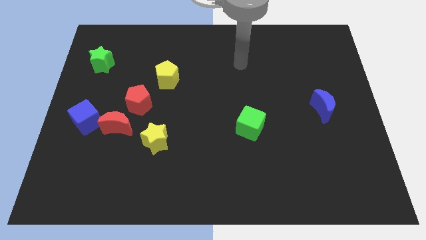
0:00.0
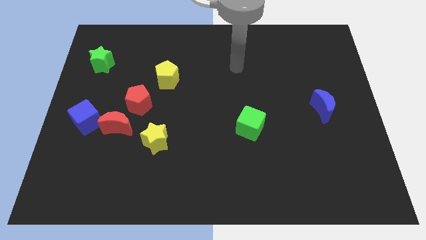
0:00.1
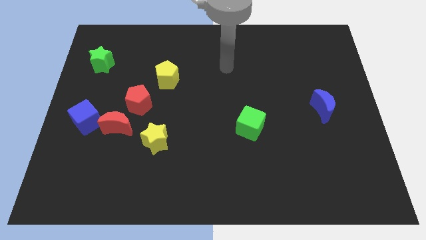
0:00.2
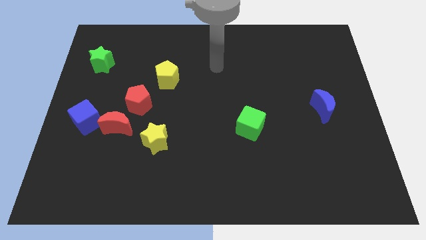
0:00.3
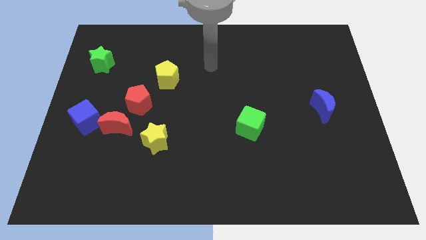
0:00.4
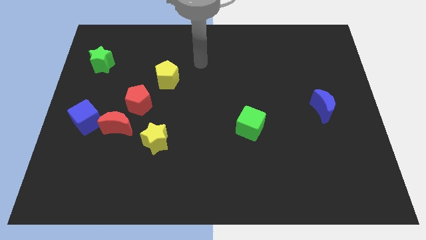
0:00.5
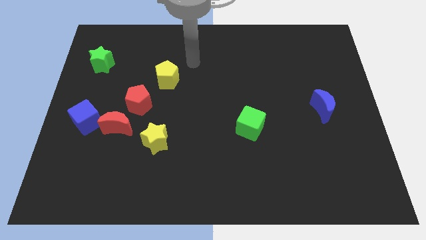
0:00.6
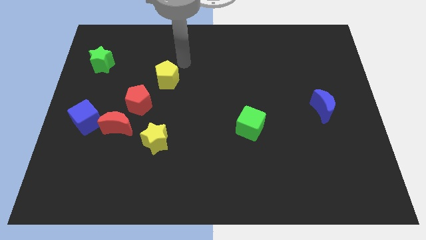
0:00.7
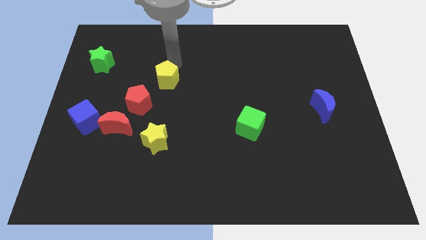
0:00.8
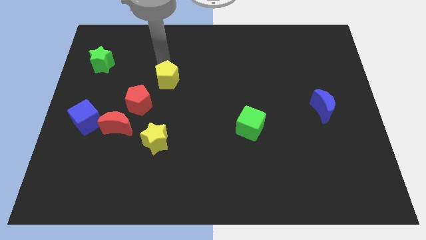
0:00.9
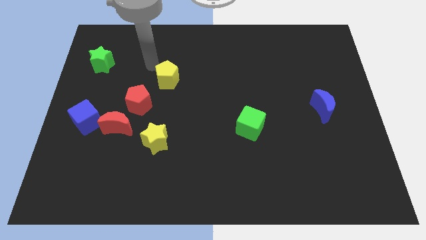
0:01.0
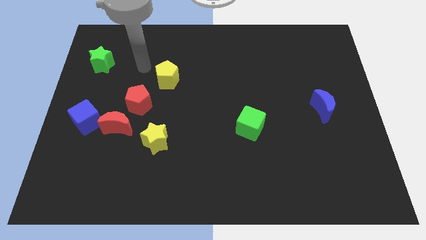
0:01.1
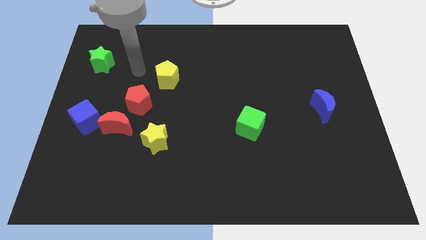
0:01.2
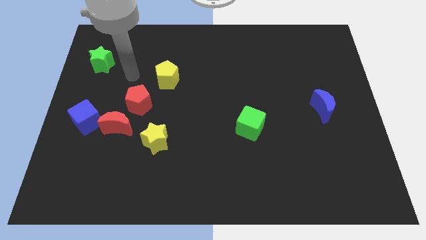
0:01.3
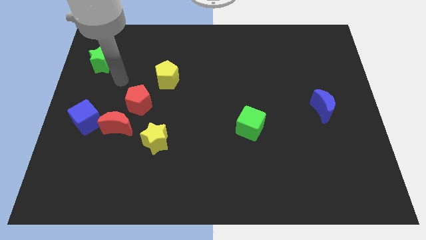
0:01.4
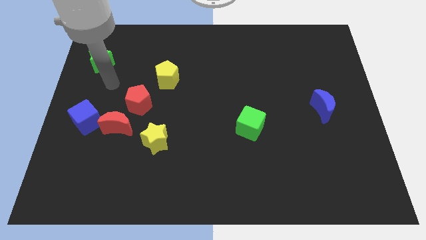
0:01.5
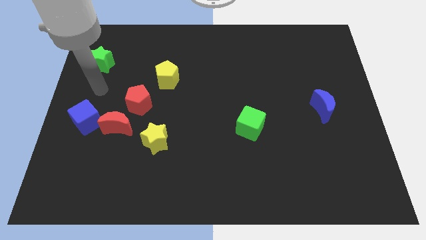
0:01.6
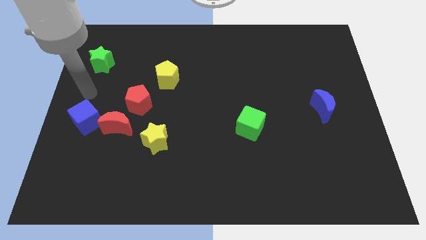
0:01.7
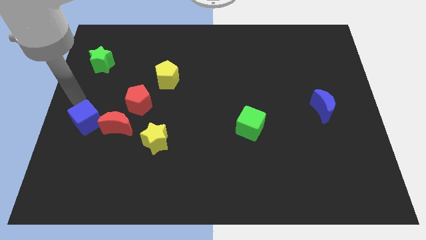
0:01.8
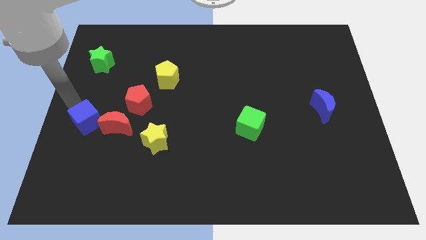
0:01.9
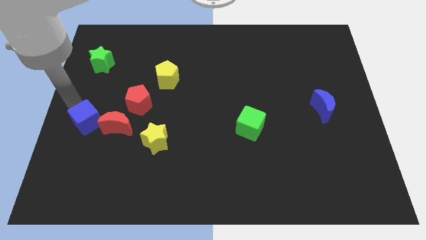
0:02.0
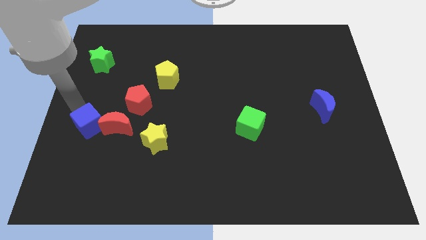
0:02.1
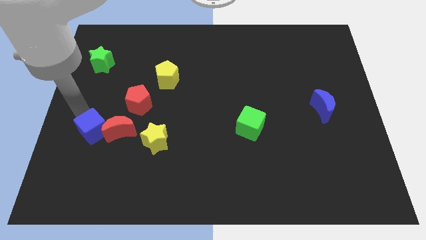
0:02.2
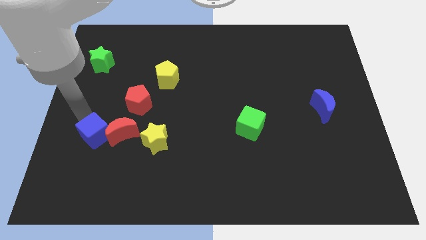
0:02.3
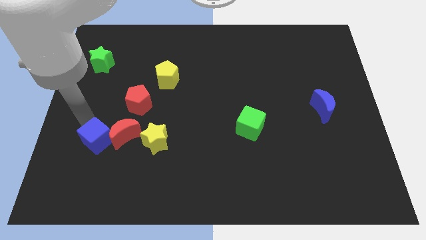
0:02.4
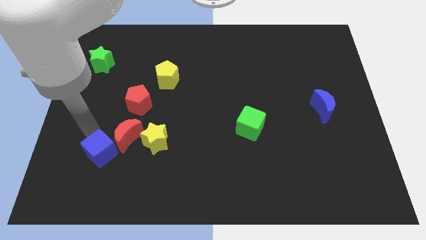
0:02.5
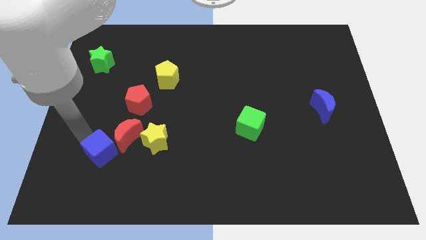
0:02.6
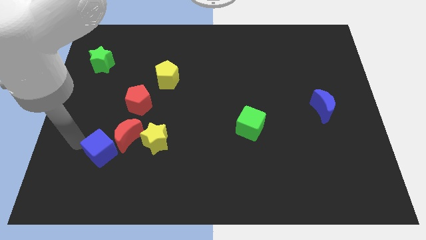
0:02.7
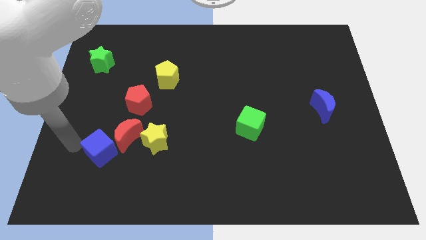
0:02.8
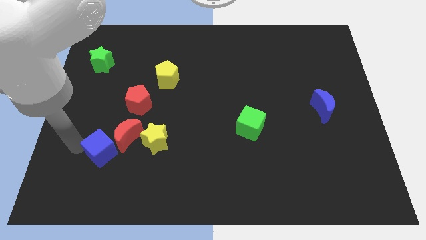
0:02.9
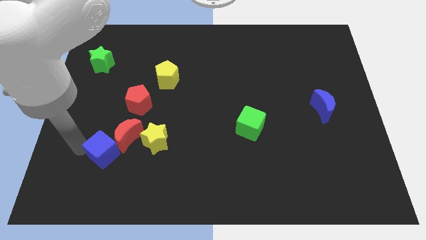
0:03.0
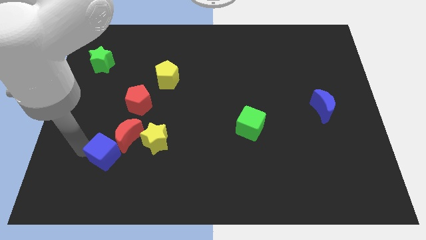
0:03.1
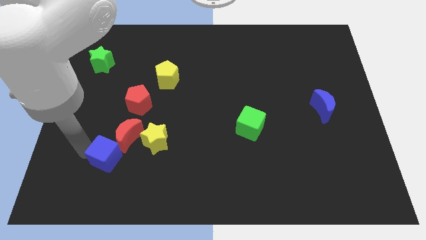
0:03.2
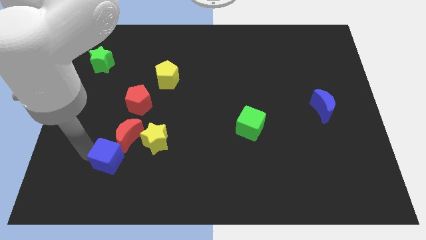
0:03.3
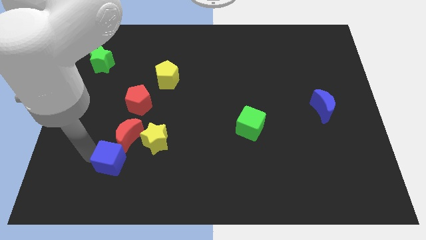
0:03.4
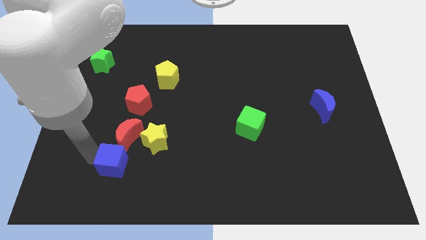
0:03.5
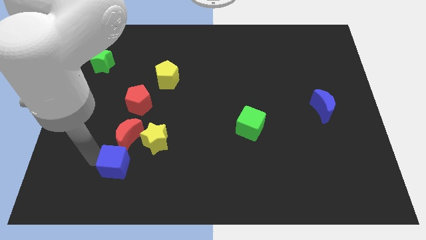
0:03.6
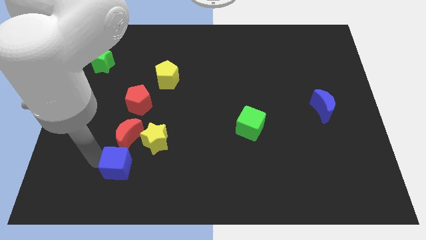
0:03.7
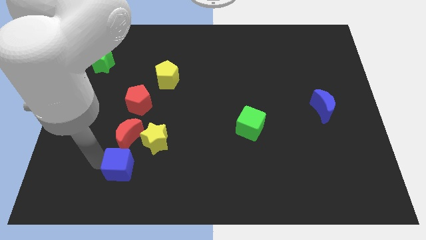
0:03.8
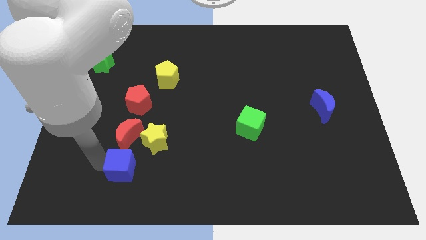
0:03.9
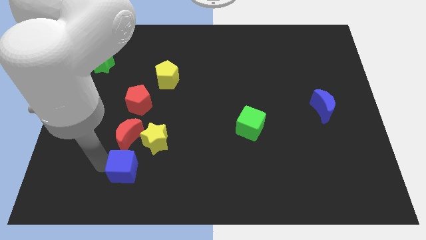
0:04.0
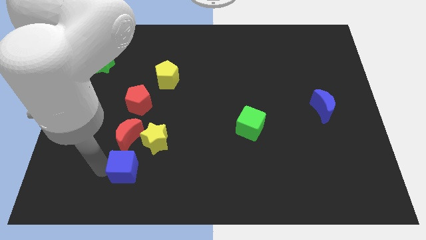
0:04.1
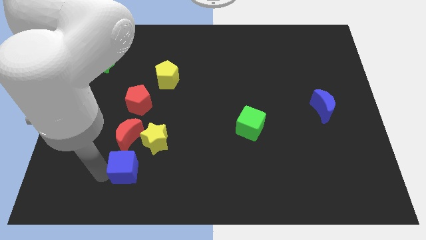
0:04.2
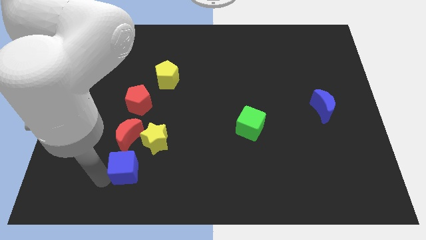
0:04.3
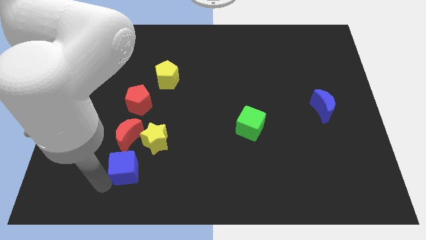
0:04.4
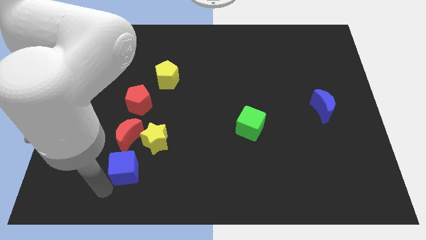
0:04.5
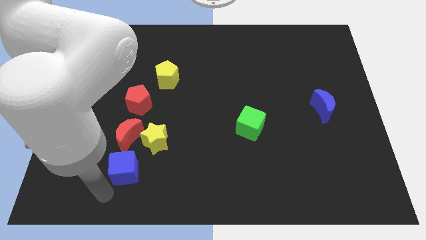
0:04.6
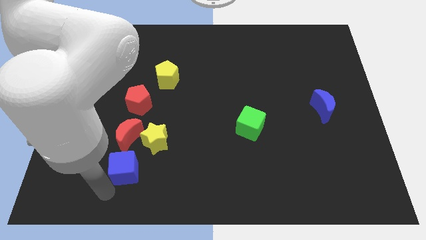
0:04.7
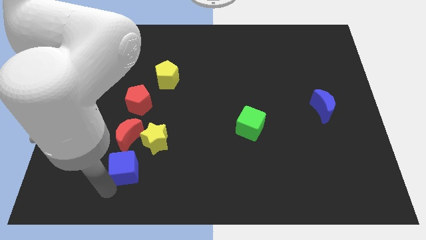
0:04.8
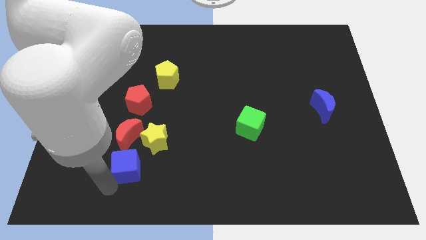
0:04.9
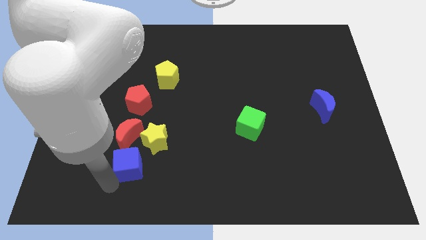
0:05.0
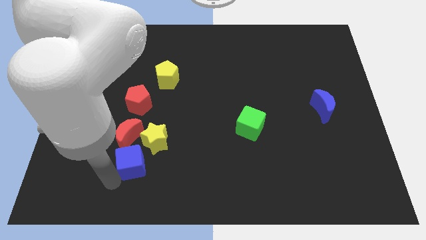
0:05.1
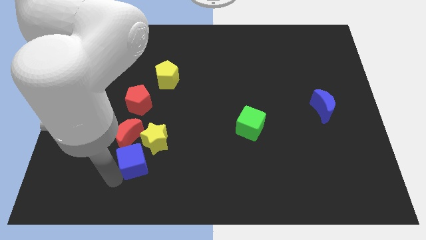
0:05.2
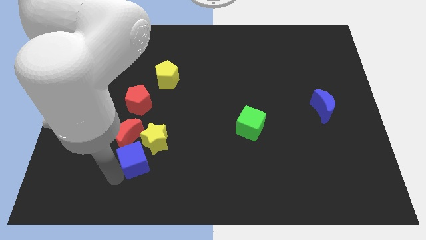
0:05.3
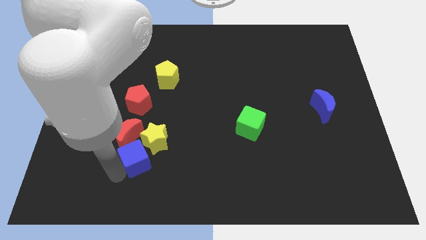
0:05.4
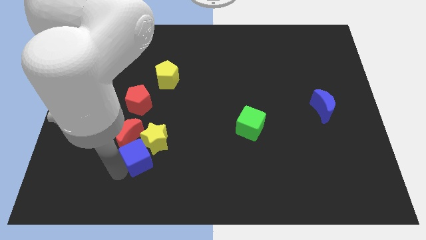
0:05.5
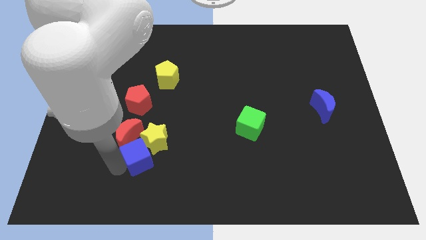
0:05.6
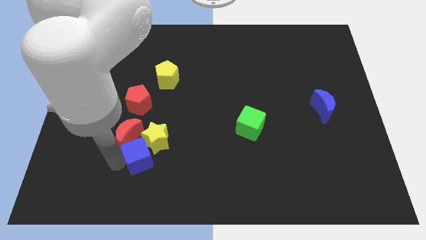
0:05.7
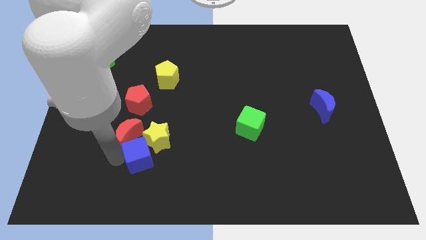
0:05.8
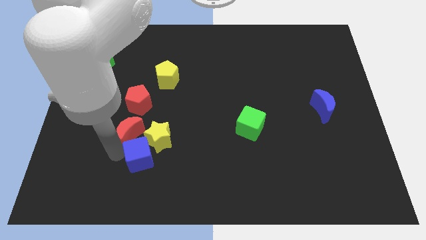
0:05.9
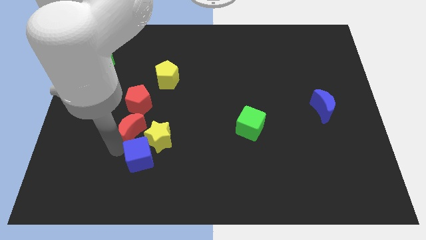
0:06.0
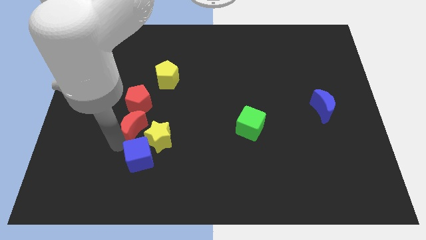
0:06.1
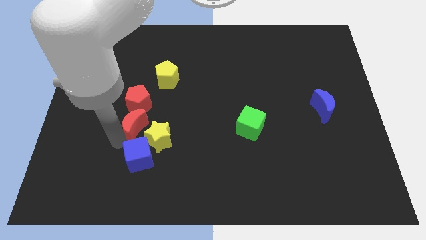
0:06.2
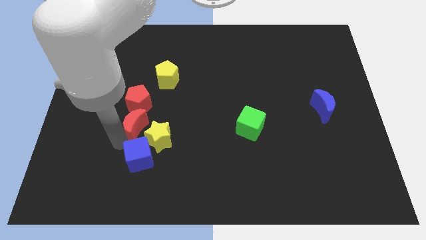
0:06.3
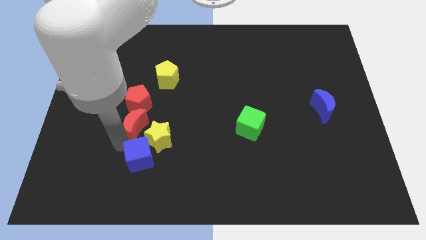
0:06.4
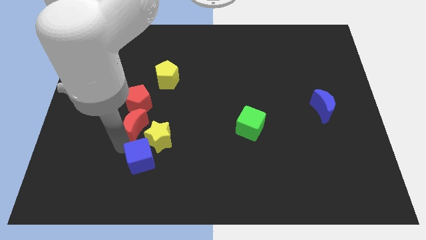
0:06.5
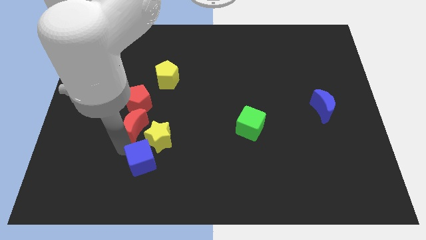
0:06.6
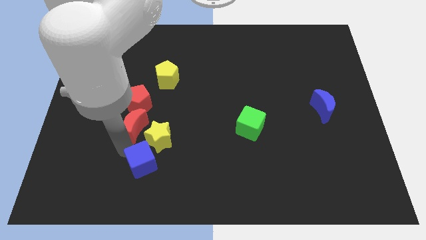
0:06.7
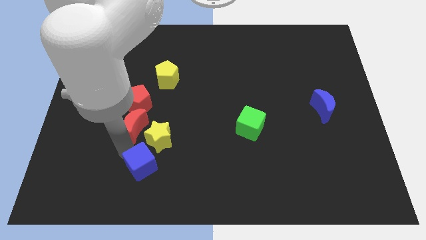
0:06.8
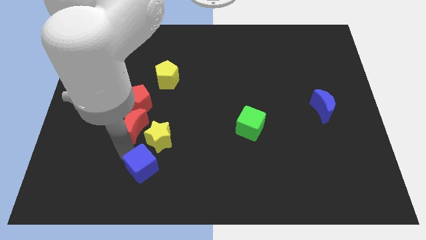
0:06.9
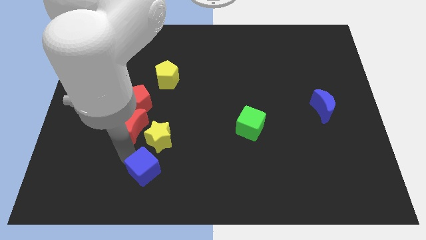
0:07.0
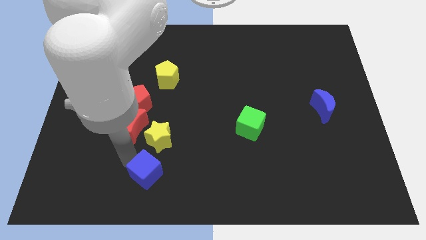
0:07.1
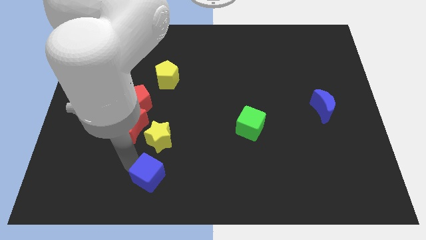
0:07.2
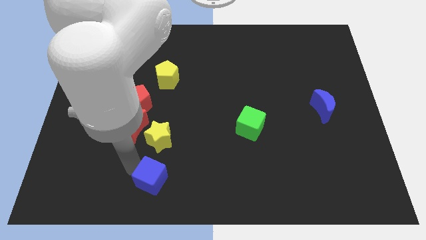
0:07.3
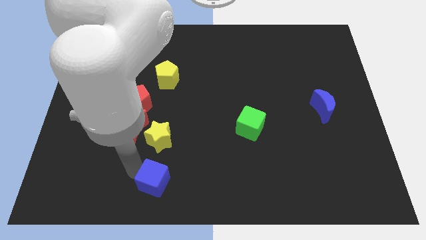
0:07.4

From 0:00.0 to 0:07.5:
move the blue cube to the bottom
